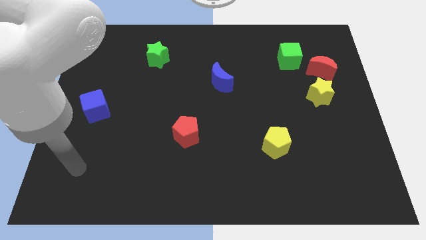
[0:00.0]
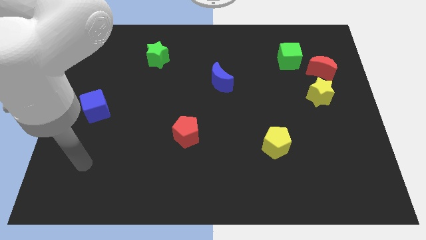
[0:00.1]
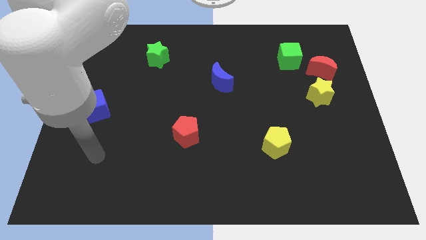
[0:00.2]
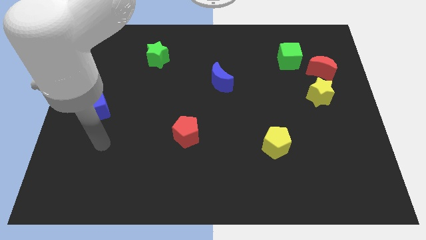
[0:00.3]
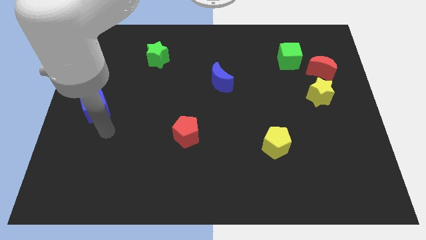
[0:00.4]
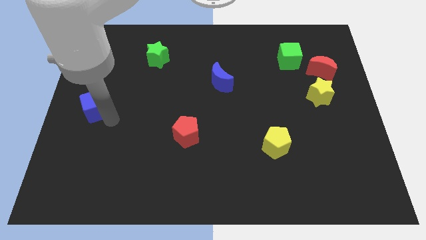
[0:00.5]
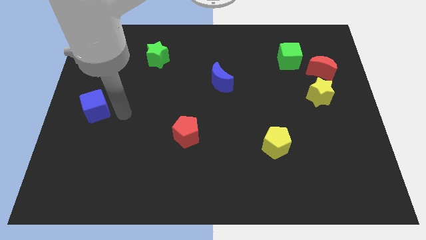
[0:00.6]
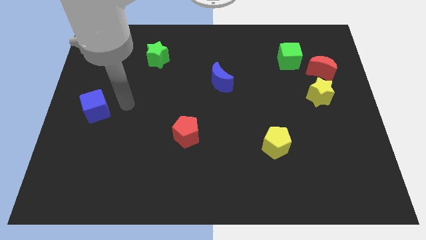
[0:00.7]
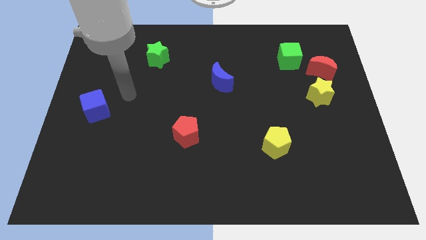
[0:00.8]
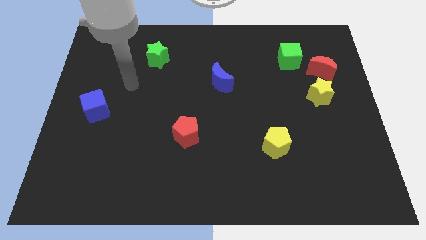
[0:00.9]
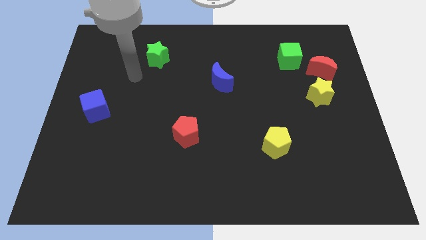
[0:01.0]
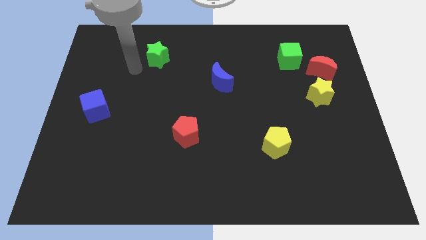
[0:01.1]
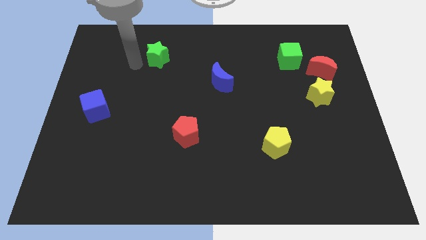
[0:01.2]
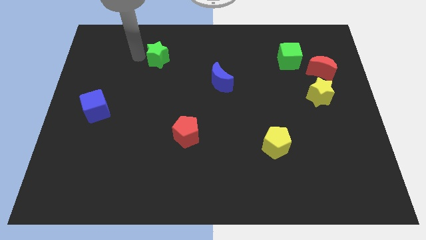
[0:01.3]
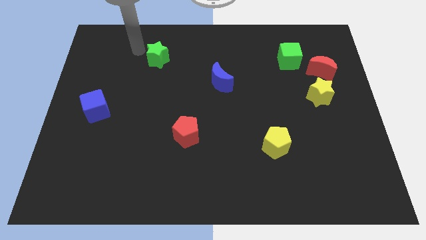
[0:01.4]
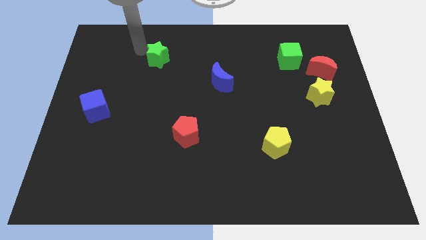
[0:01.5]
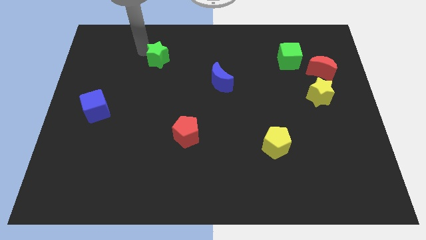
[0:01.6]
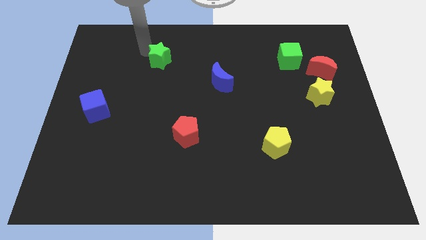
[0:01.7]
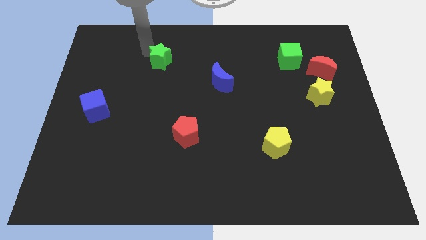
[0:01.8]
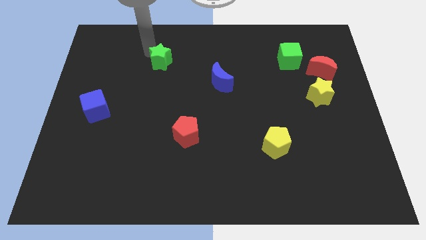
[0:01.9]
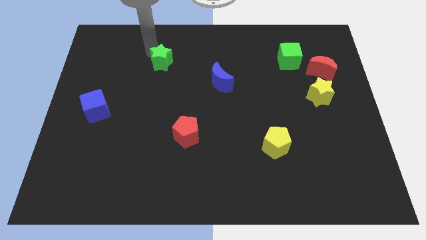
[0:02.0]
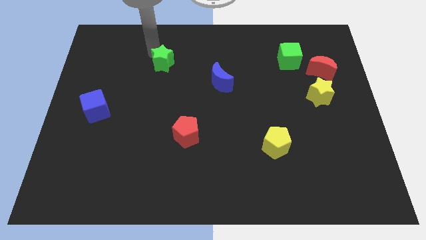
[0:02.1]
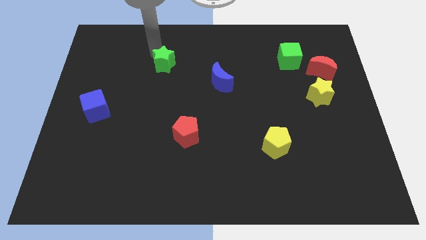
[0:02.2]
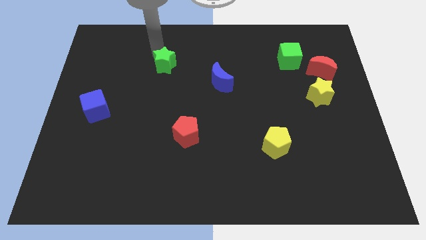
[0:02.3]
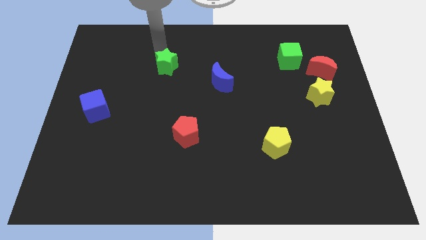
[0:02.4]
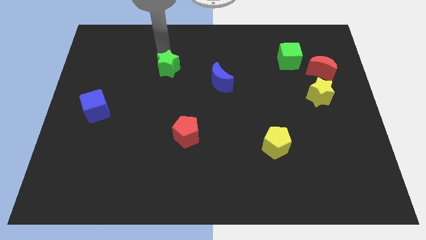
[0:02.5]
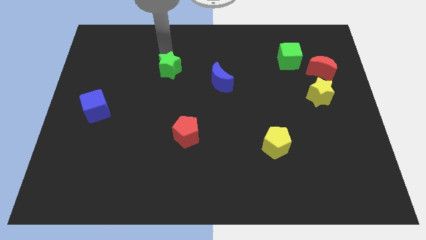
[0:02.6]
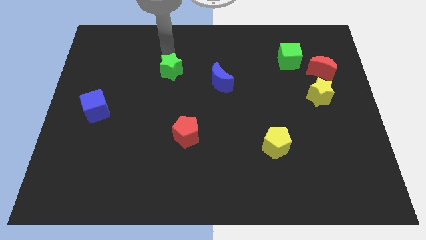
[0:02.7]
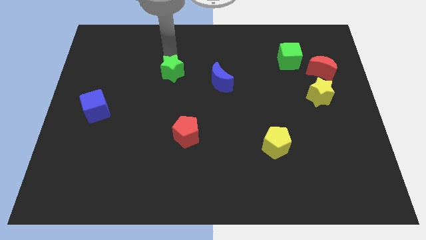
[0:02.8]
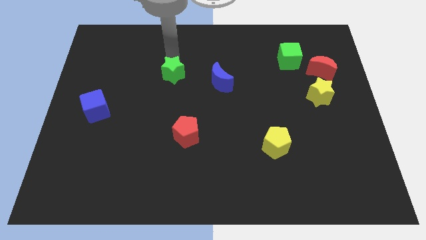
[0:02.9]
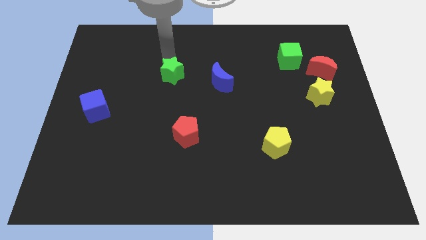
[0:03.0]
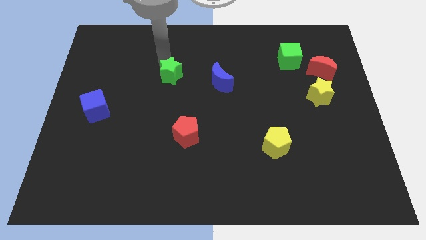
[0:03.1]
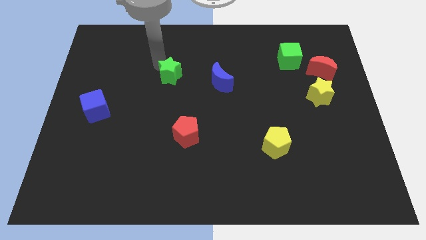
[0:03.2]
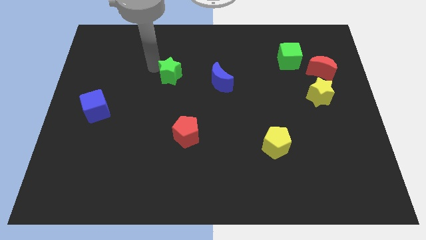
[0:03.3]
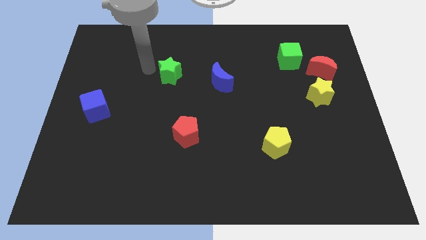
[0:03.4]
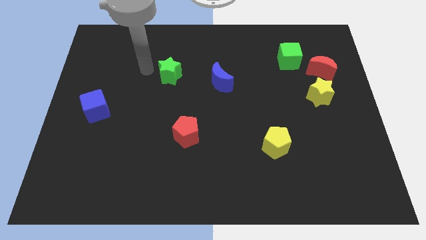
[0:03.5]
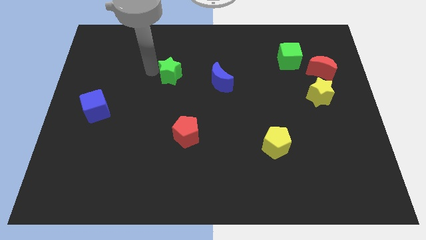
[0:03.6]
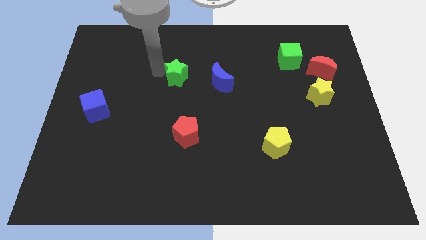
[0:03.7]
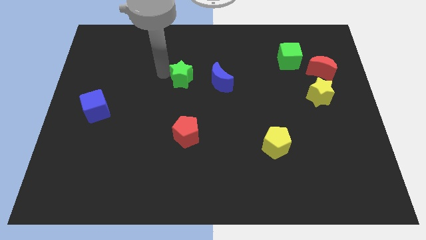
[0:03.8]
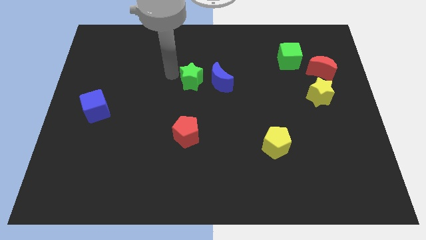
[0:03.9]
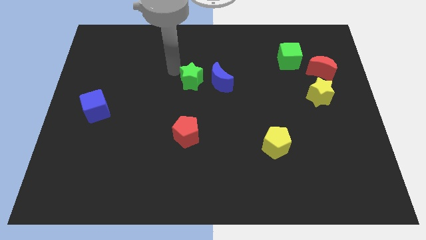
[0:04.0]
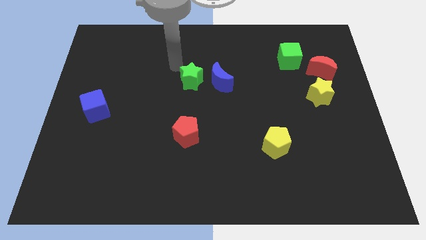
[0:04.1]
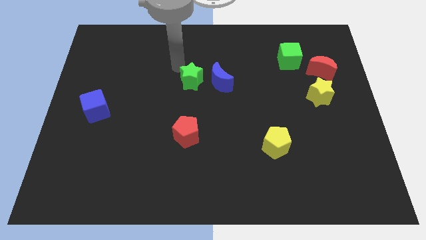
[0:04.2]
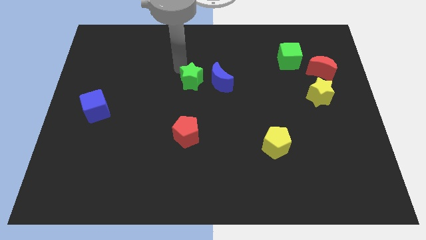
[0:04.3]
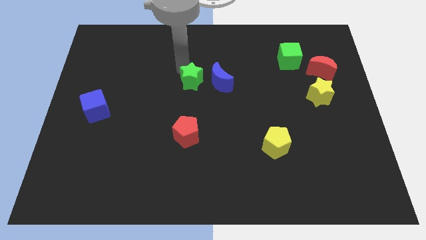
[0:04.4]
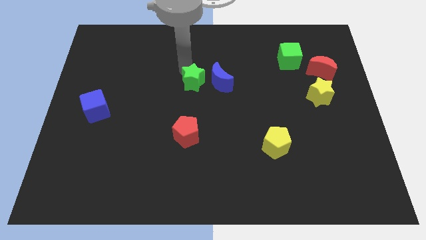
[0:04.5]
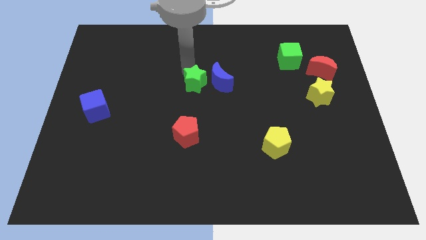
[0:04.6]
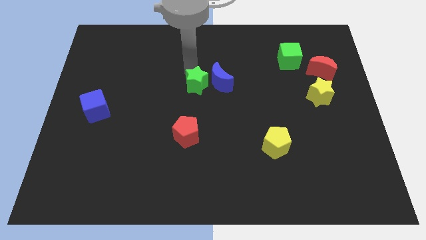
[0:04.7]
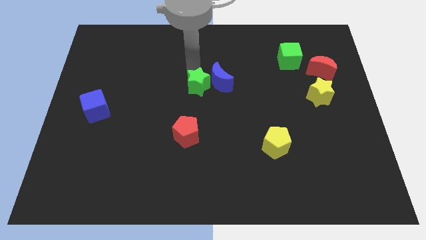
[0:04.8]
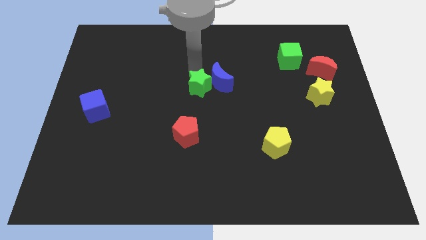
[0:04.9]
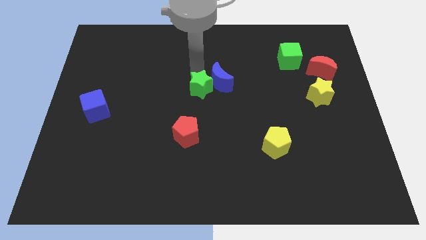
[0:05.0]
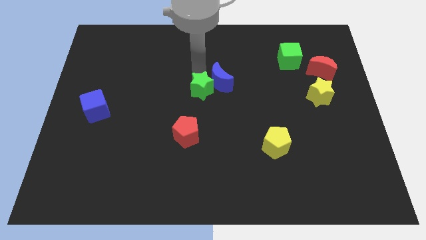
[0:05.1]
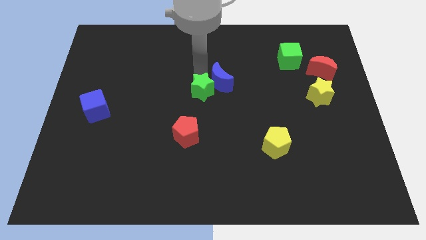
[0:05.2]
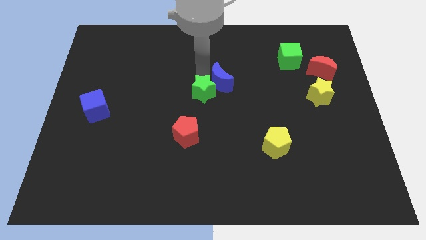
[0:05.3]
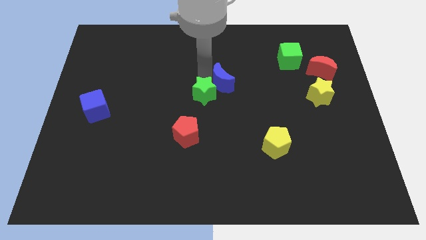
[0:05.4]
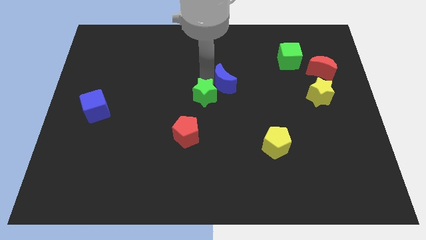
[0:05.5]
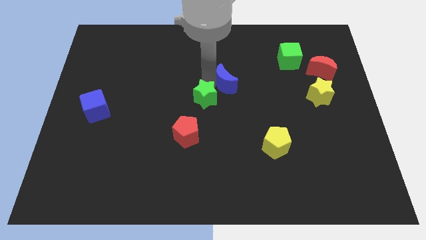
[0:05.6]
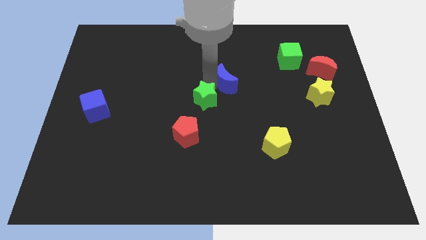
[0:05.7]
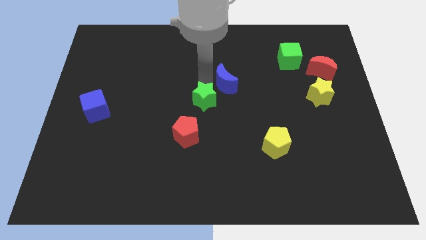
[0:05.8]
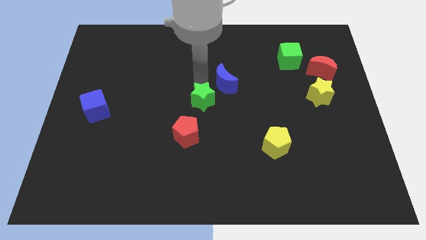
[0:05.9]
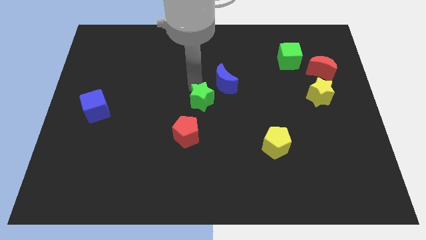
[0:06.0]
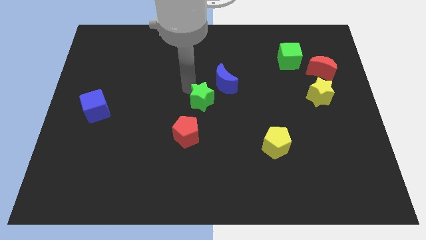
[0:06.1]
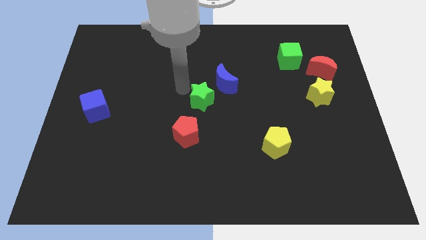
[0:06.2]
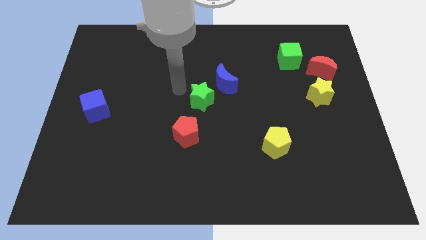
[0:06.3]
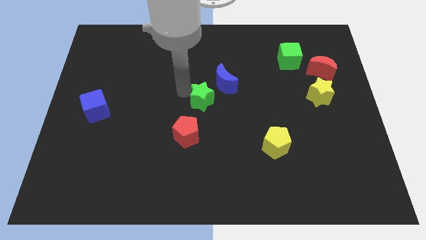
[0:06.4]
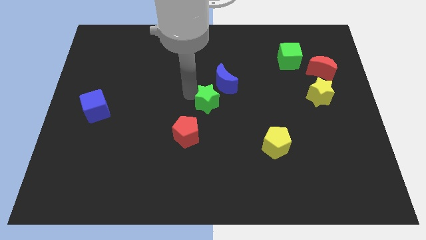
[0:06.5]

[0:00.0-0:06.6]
slide the green star downwards and right

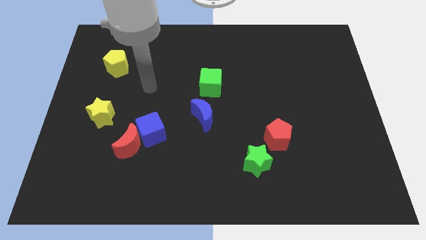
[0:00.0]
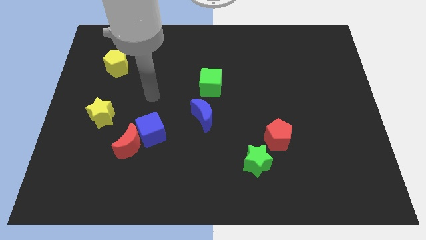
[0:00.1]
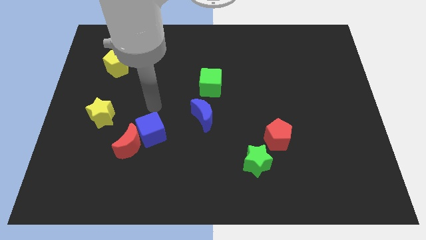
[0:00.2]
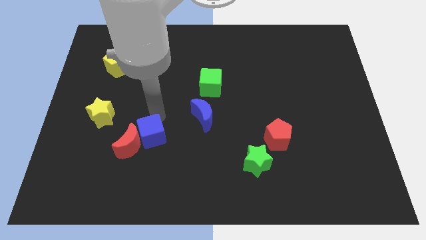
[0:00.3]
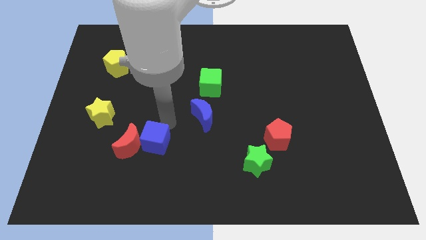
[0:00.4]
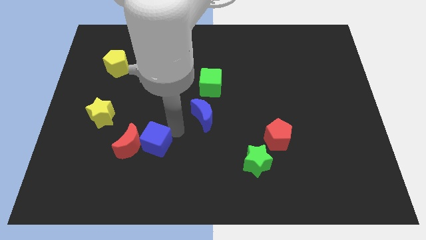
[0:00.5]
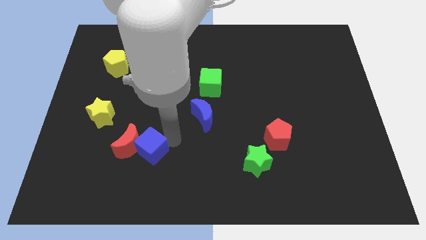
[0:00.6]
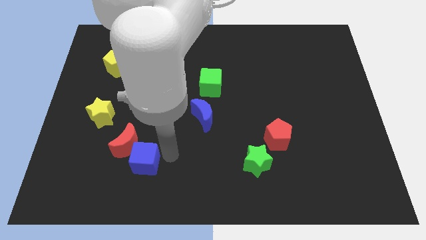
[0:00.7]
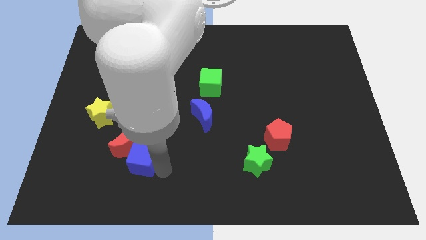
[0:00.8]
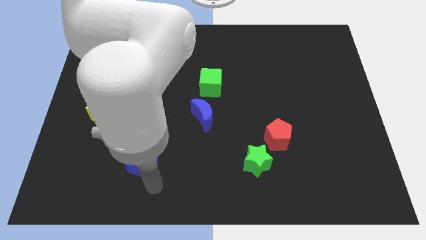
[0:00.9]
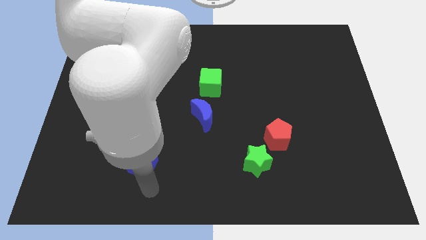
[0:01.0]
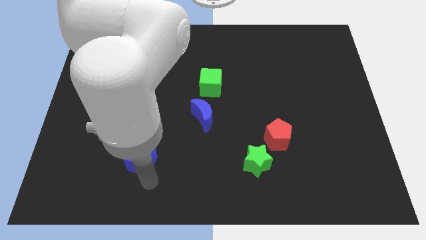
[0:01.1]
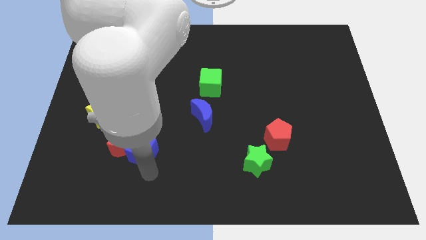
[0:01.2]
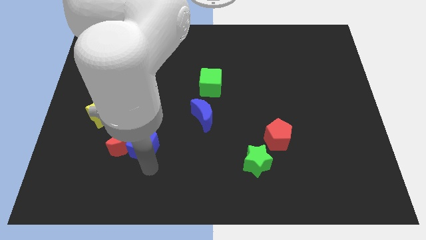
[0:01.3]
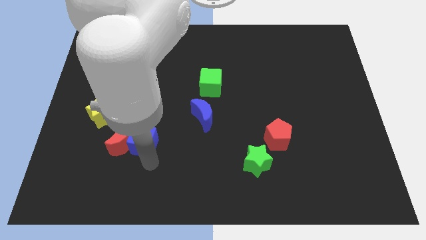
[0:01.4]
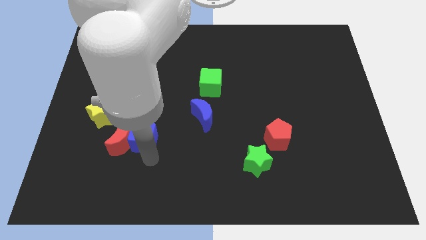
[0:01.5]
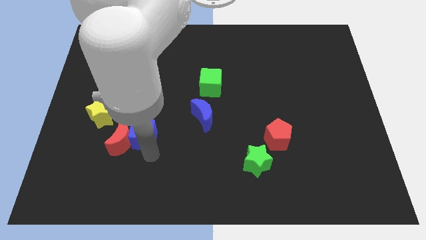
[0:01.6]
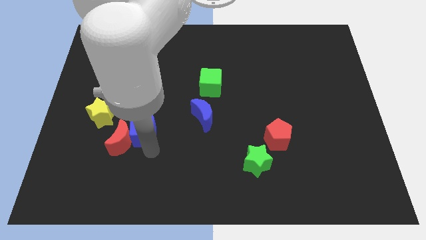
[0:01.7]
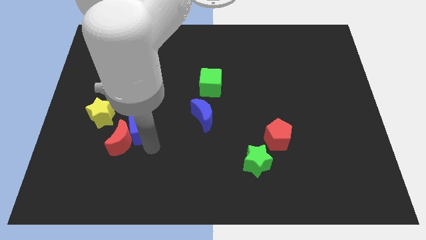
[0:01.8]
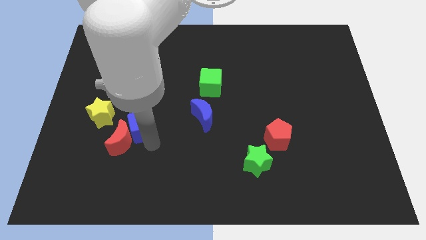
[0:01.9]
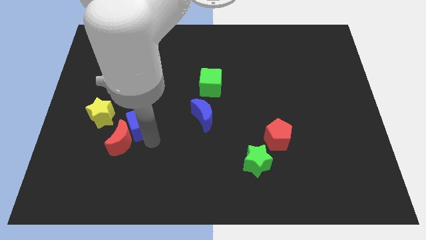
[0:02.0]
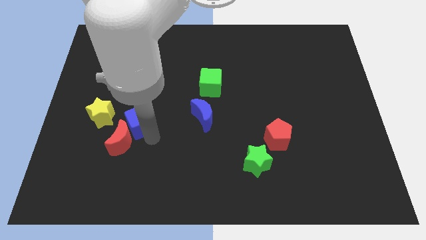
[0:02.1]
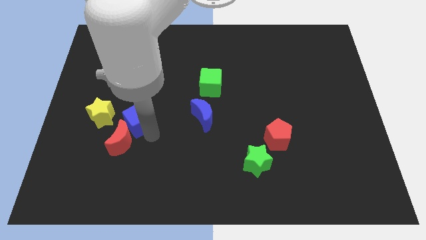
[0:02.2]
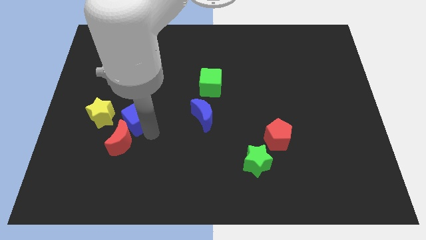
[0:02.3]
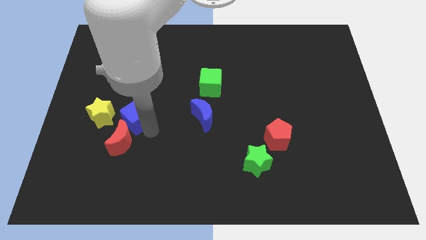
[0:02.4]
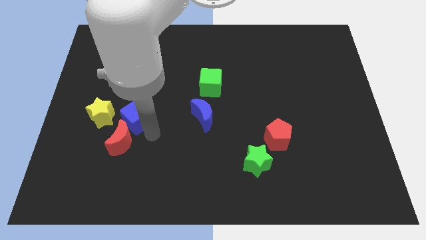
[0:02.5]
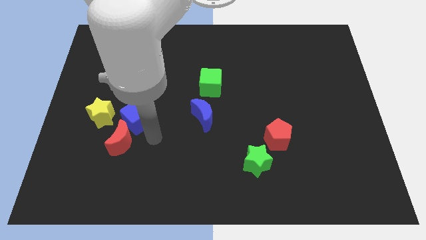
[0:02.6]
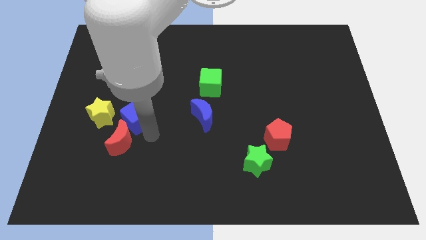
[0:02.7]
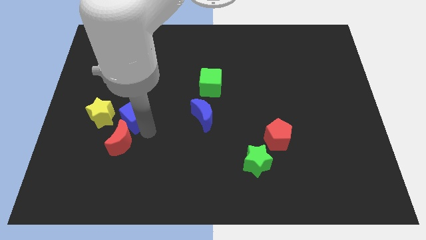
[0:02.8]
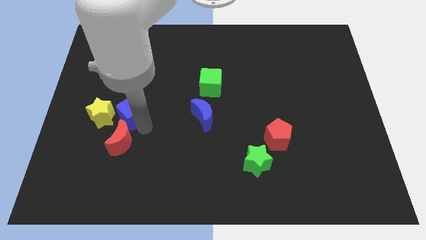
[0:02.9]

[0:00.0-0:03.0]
slightly slide the blue cube up and then to the left
